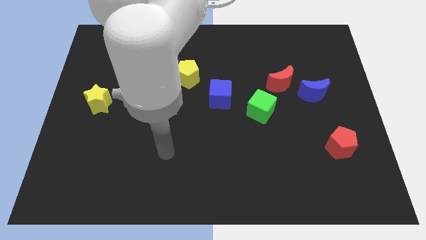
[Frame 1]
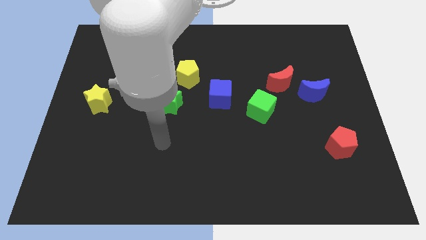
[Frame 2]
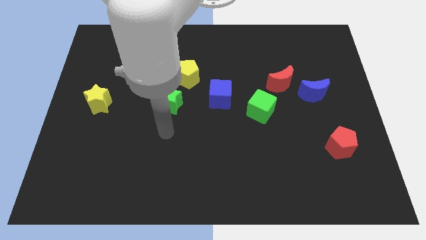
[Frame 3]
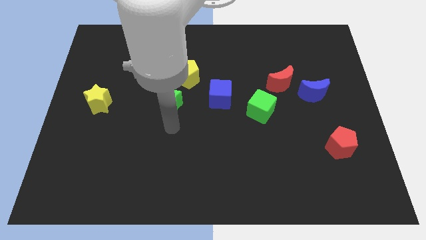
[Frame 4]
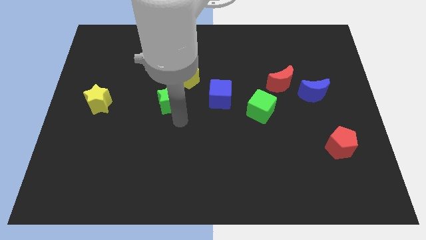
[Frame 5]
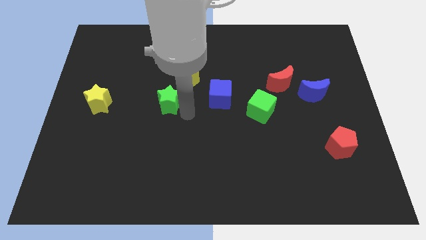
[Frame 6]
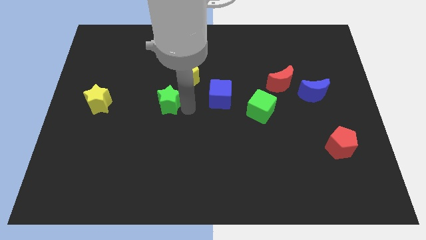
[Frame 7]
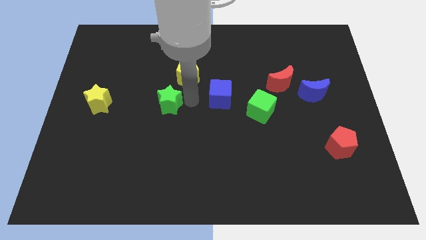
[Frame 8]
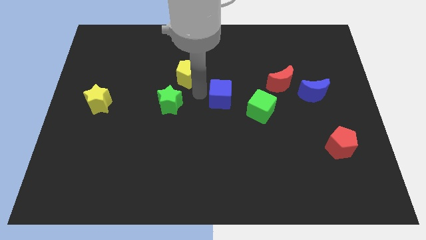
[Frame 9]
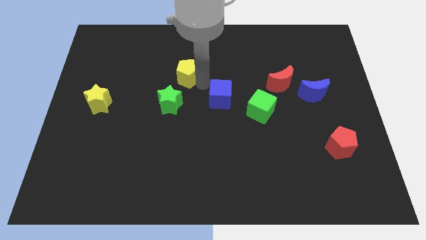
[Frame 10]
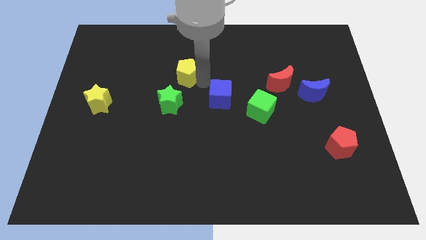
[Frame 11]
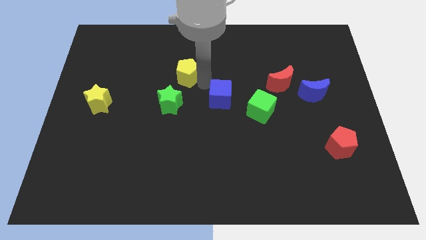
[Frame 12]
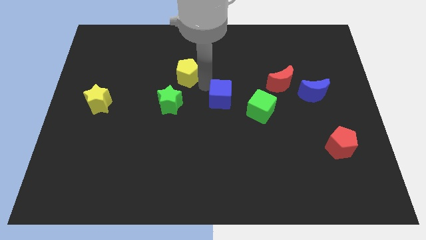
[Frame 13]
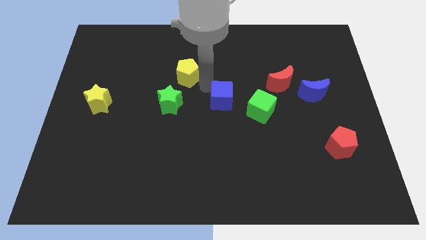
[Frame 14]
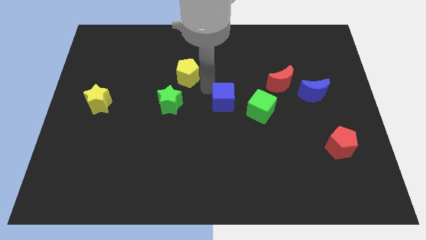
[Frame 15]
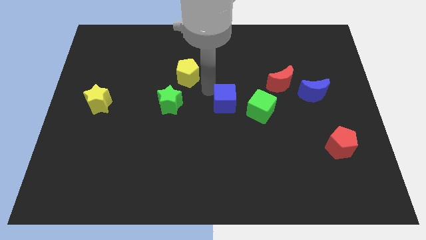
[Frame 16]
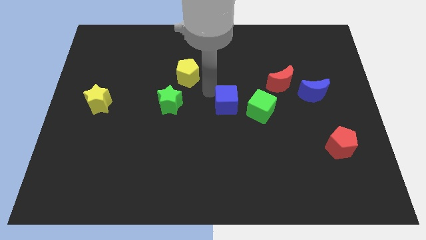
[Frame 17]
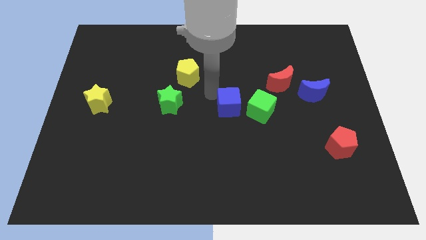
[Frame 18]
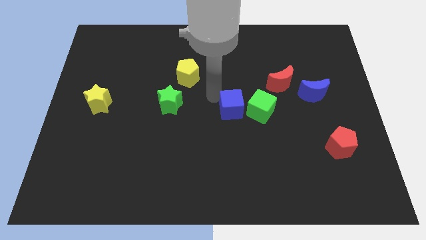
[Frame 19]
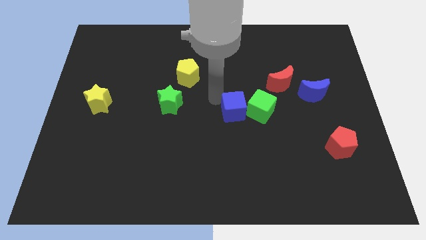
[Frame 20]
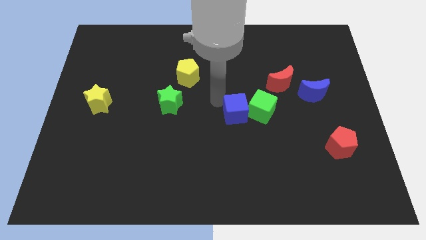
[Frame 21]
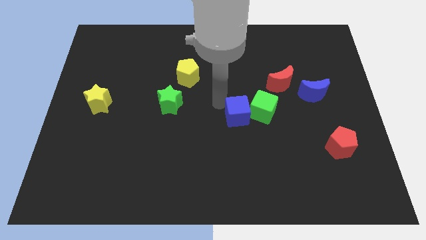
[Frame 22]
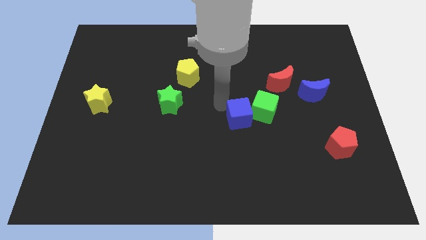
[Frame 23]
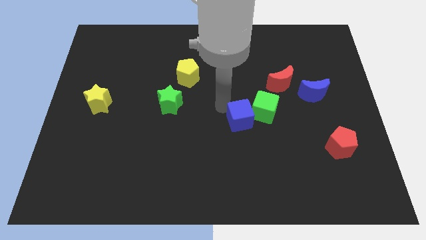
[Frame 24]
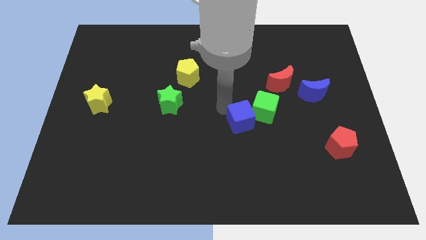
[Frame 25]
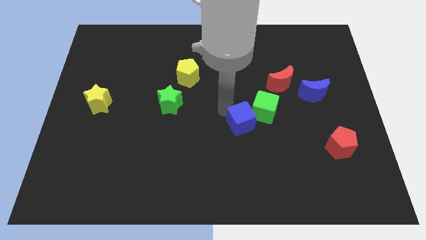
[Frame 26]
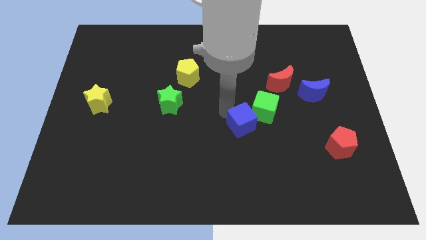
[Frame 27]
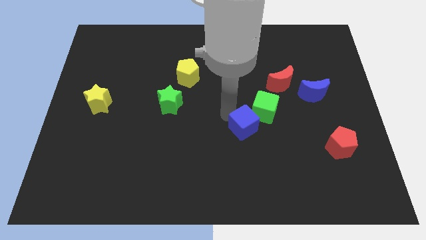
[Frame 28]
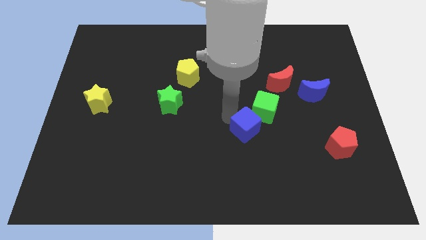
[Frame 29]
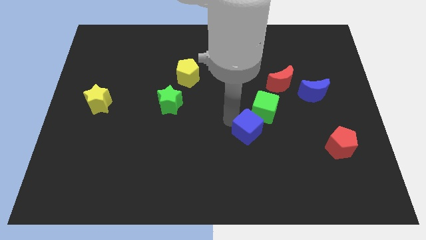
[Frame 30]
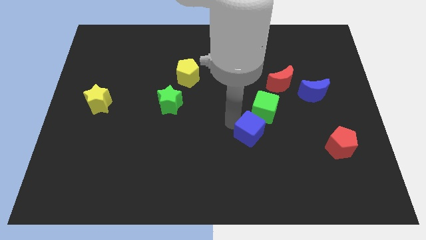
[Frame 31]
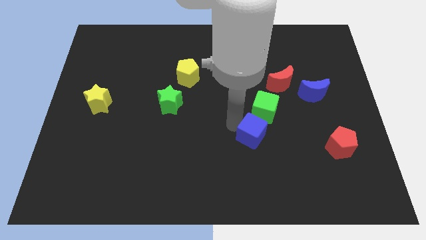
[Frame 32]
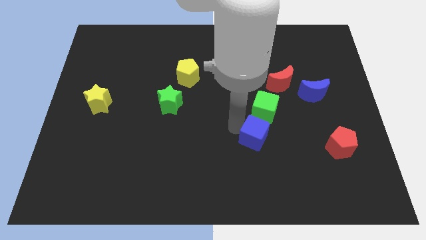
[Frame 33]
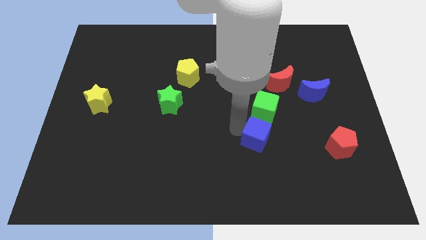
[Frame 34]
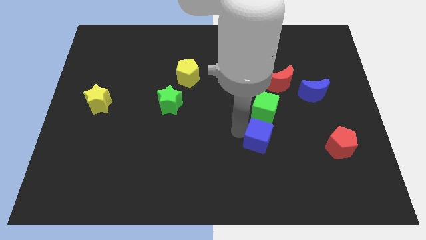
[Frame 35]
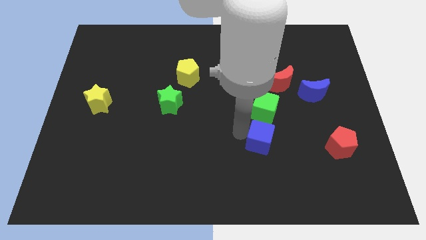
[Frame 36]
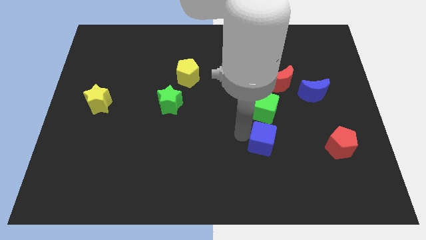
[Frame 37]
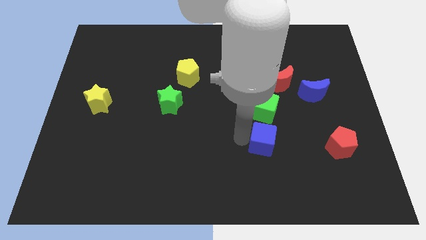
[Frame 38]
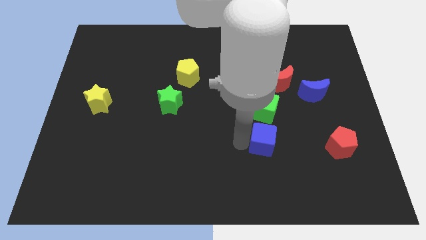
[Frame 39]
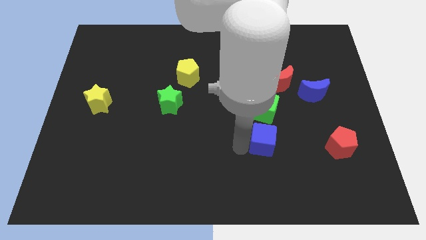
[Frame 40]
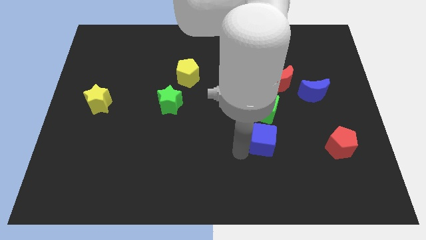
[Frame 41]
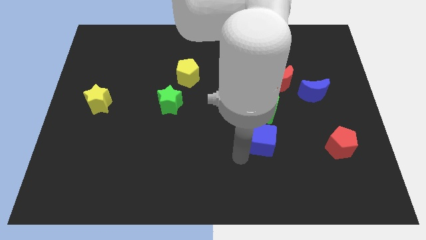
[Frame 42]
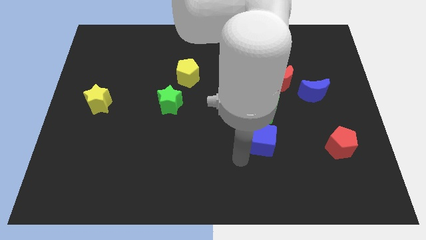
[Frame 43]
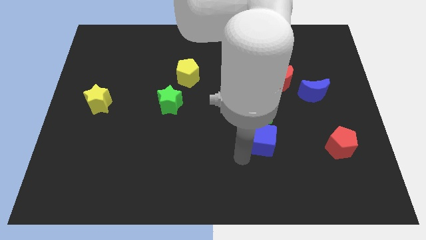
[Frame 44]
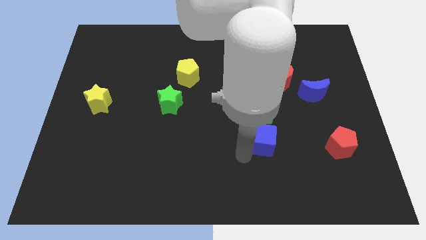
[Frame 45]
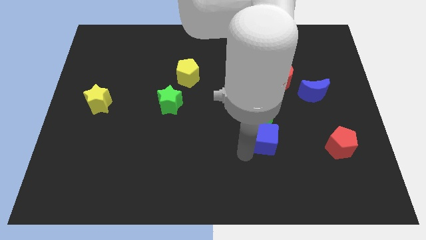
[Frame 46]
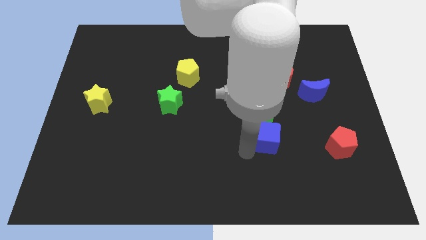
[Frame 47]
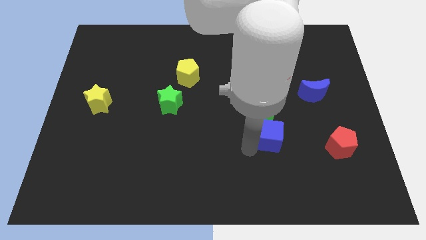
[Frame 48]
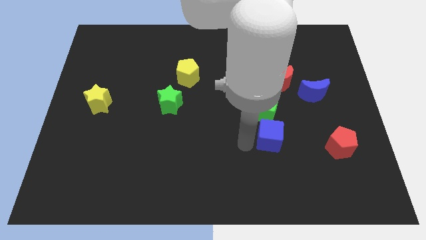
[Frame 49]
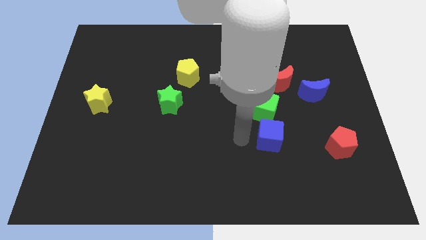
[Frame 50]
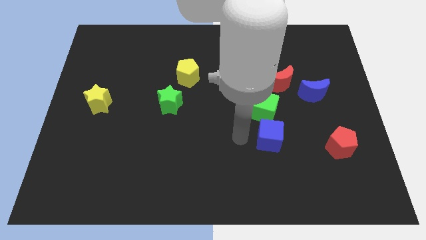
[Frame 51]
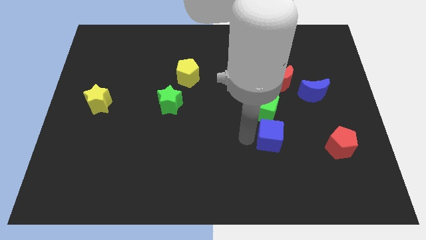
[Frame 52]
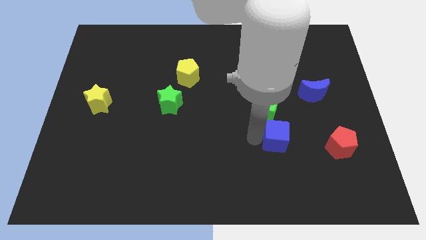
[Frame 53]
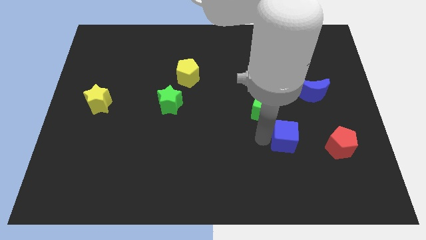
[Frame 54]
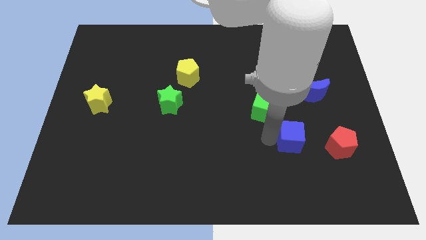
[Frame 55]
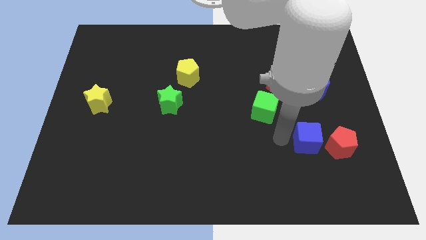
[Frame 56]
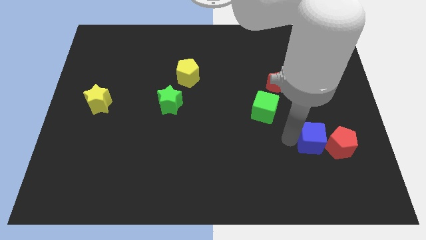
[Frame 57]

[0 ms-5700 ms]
slide the blue cube to the red pentagon

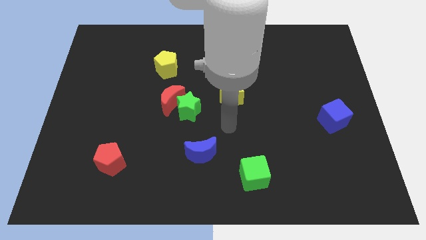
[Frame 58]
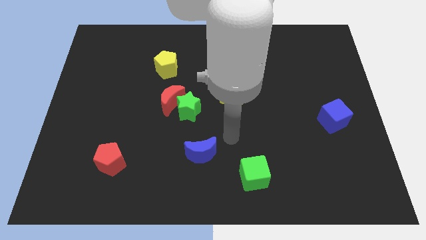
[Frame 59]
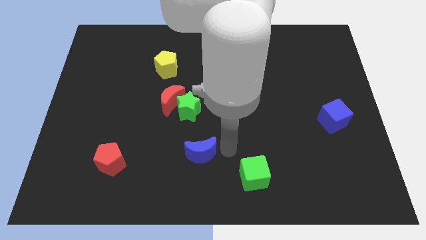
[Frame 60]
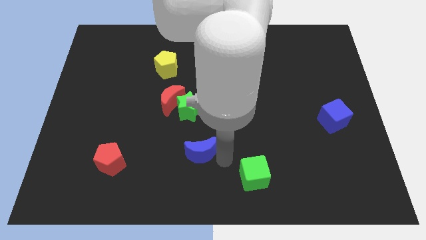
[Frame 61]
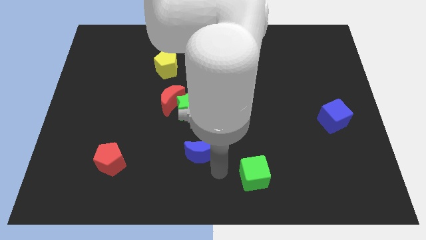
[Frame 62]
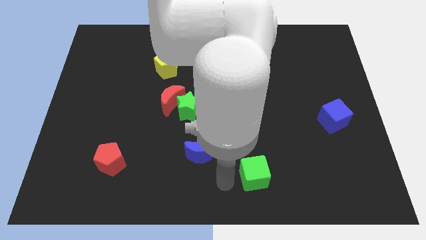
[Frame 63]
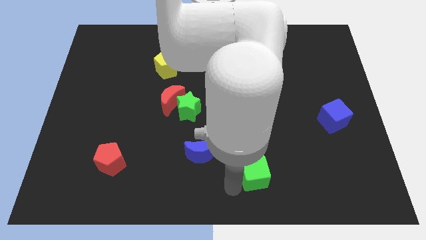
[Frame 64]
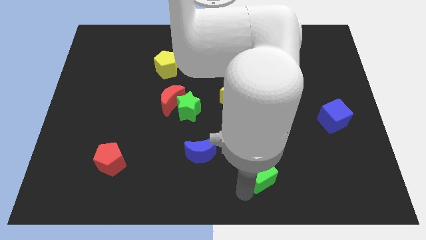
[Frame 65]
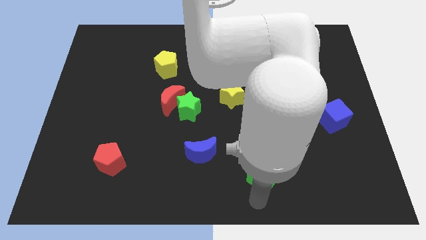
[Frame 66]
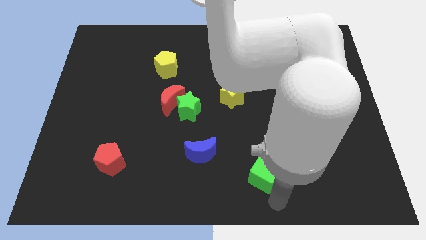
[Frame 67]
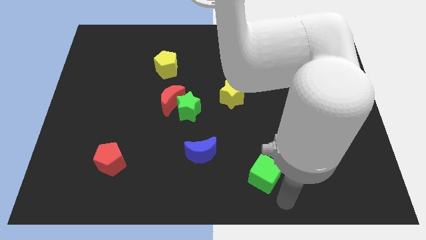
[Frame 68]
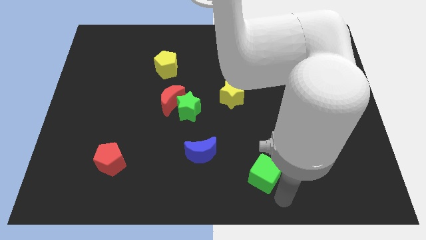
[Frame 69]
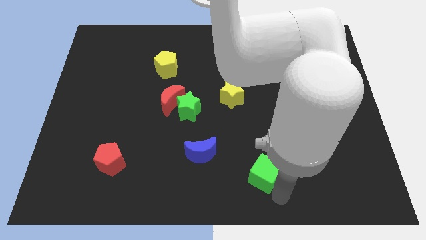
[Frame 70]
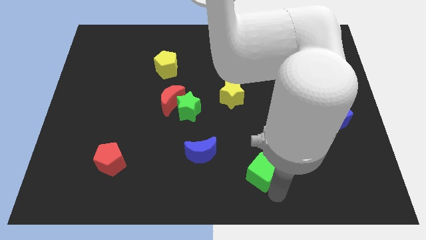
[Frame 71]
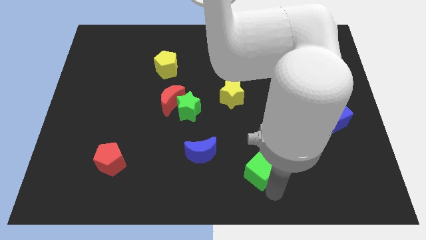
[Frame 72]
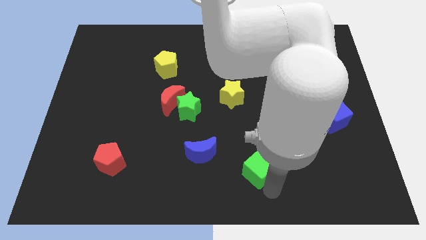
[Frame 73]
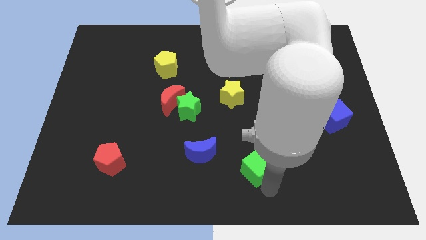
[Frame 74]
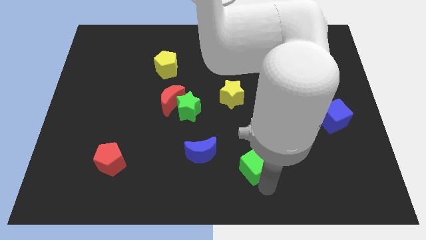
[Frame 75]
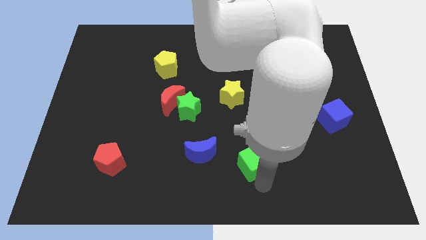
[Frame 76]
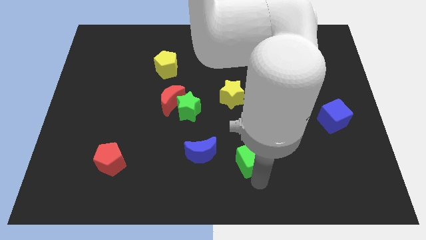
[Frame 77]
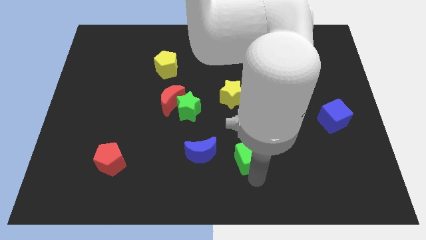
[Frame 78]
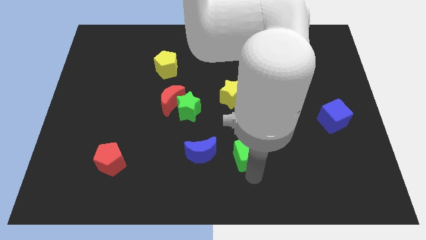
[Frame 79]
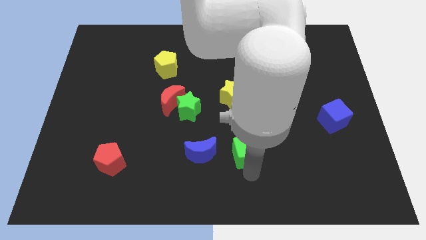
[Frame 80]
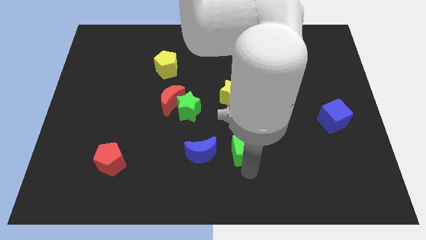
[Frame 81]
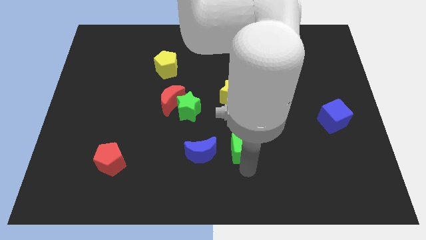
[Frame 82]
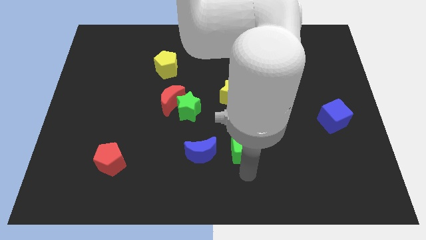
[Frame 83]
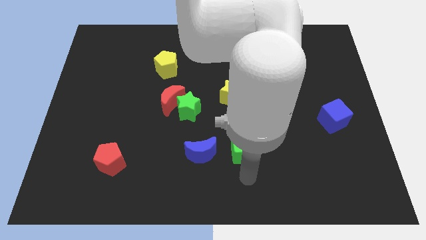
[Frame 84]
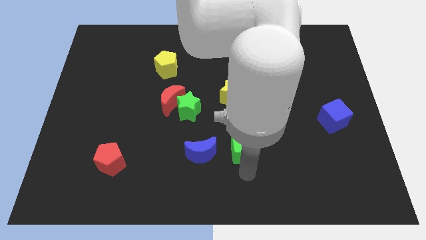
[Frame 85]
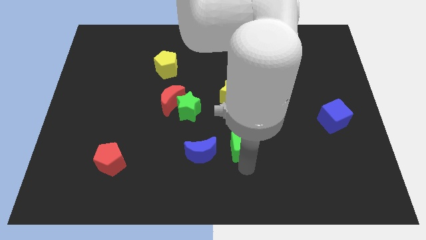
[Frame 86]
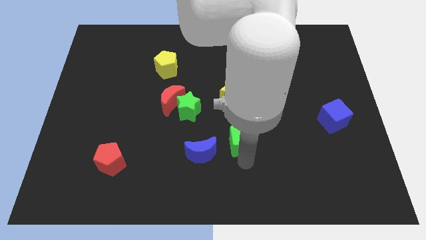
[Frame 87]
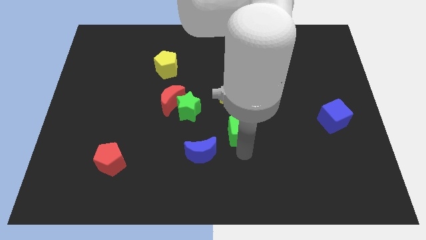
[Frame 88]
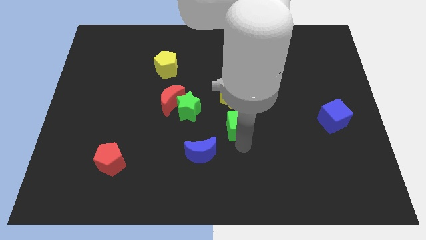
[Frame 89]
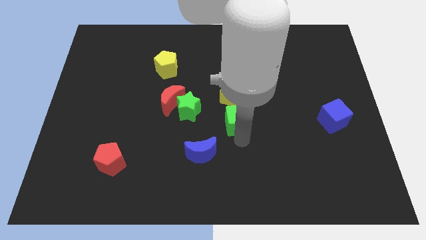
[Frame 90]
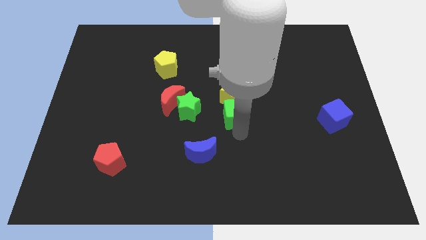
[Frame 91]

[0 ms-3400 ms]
slide the green cube next to the yellow star
